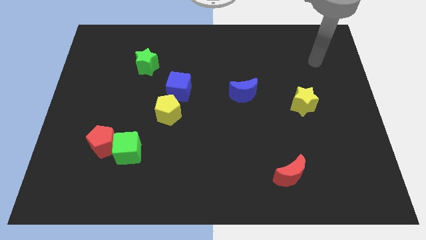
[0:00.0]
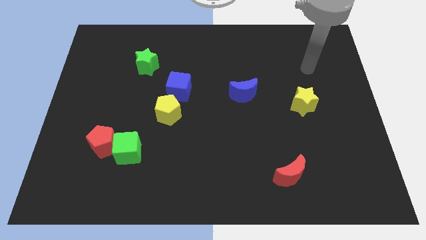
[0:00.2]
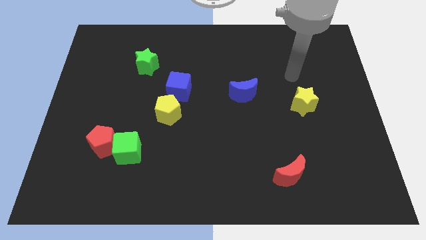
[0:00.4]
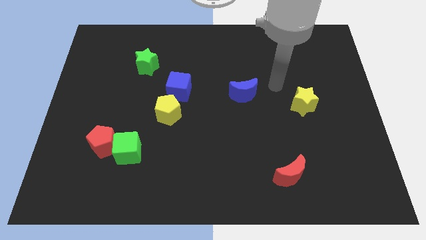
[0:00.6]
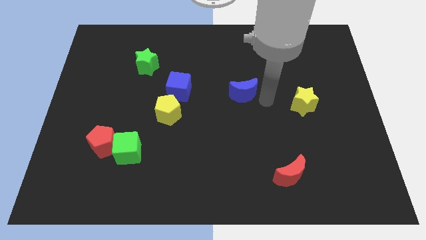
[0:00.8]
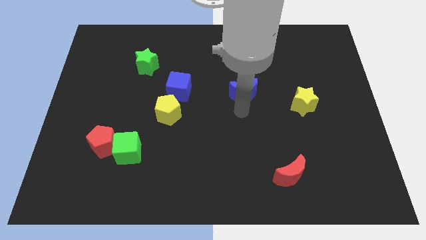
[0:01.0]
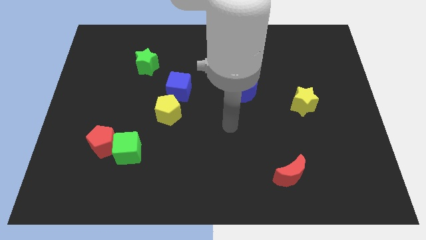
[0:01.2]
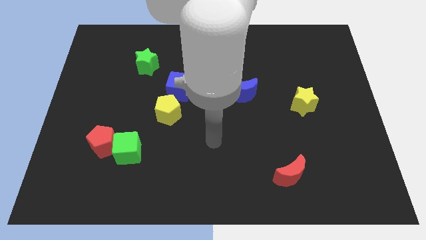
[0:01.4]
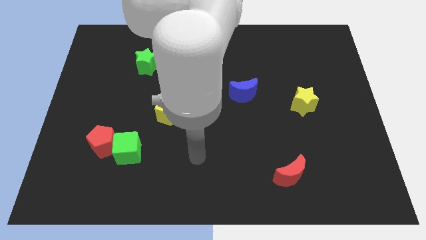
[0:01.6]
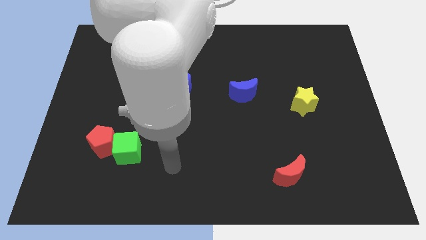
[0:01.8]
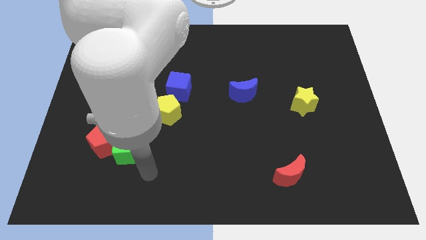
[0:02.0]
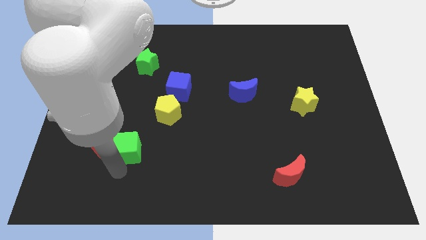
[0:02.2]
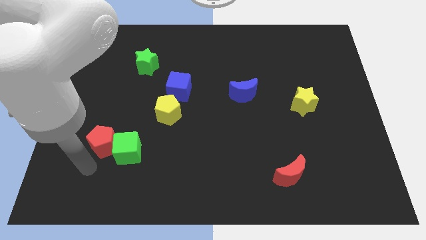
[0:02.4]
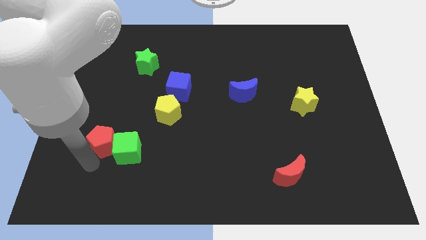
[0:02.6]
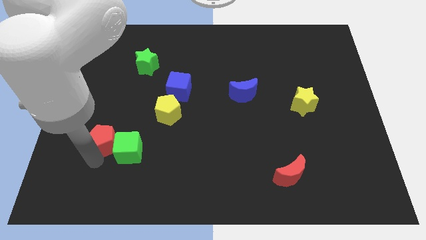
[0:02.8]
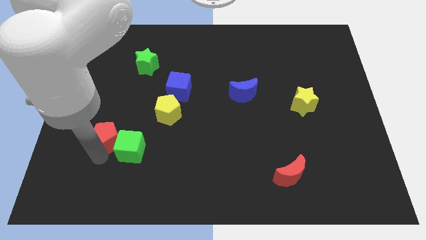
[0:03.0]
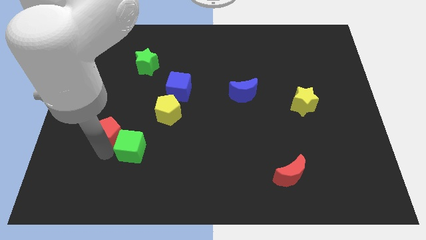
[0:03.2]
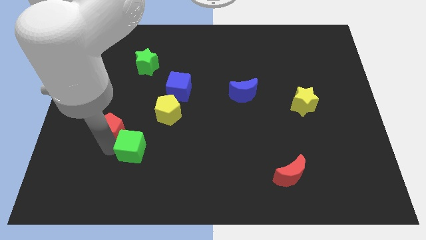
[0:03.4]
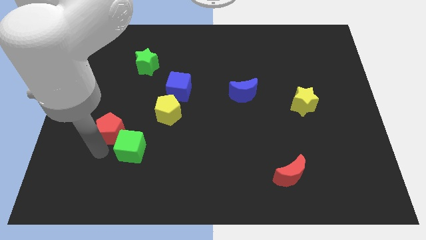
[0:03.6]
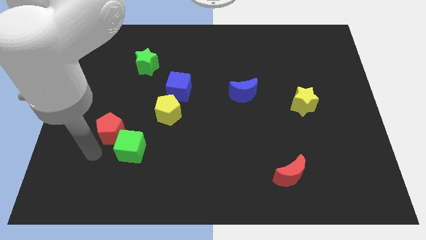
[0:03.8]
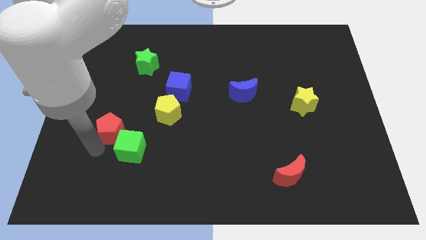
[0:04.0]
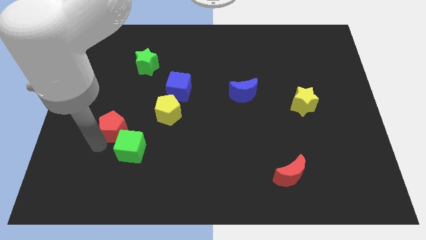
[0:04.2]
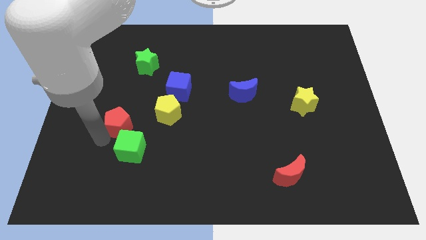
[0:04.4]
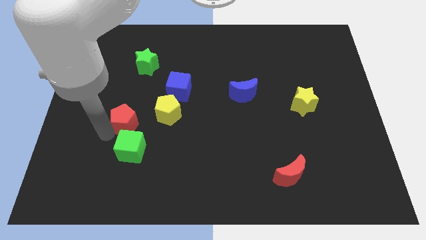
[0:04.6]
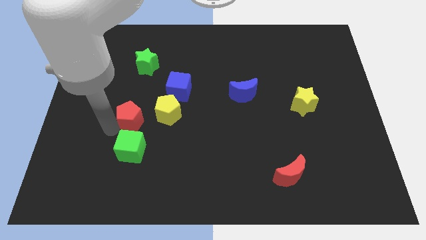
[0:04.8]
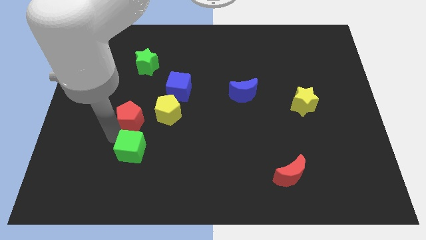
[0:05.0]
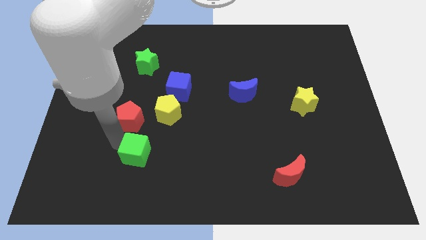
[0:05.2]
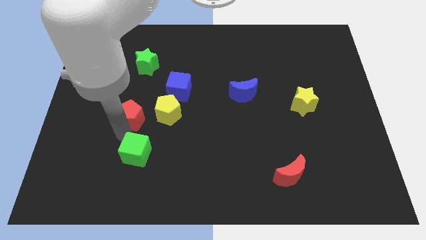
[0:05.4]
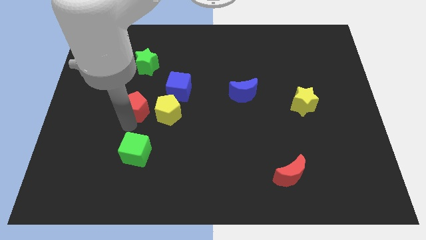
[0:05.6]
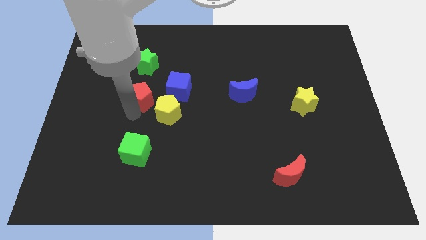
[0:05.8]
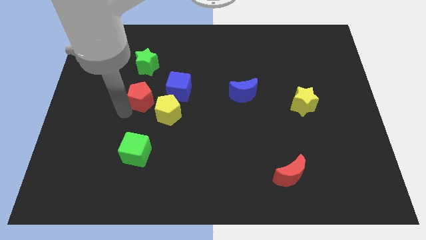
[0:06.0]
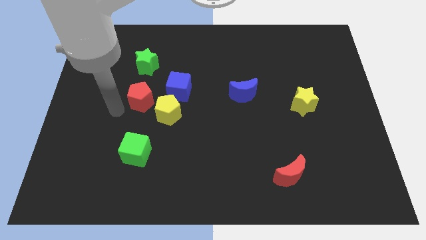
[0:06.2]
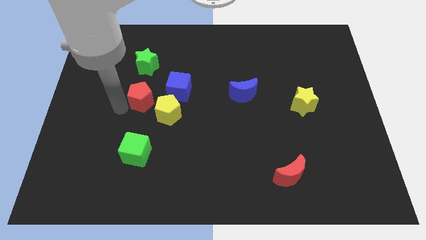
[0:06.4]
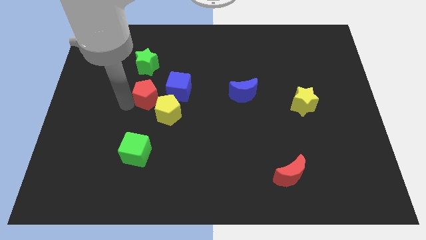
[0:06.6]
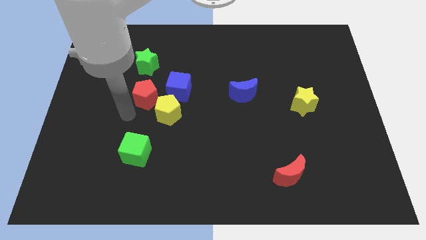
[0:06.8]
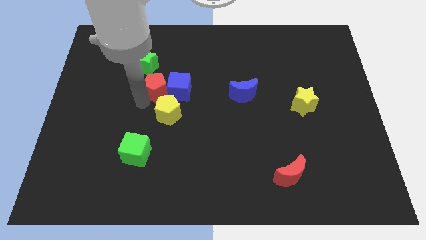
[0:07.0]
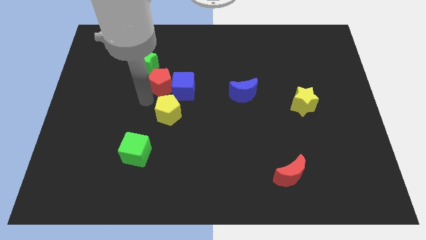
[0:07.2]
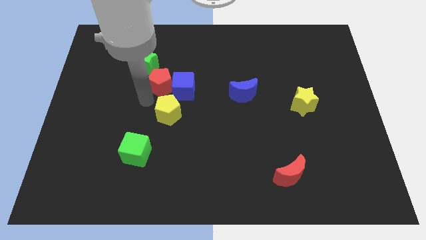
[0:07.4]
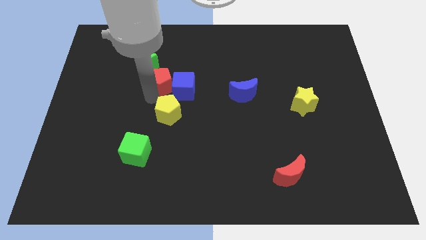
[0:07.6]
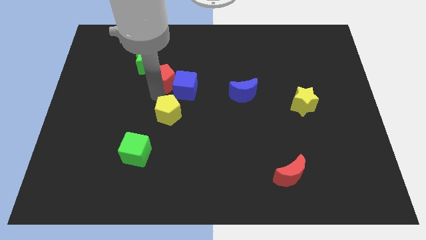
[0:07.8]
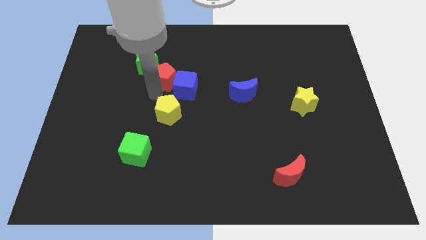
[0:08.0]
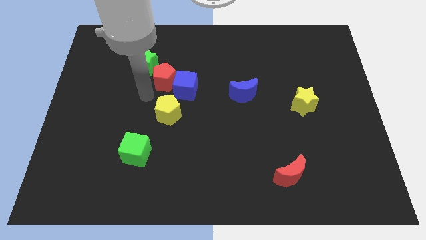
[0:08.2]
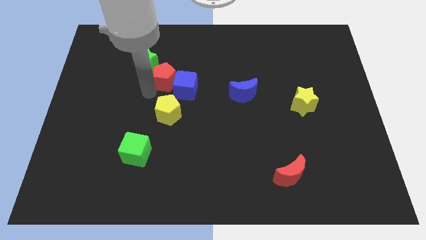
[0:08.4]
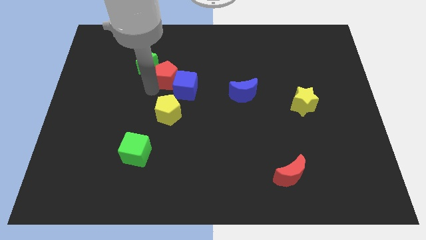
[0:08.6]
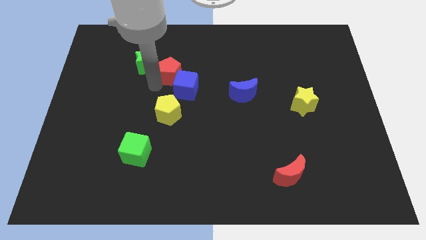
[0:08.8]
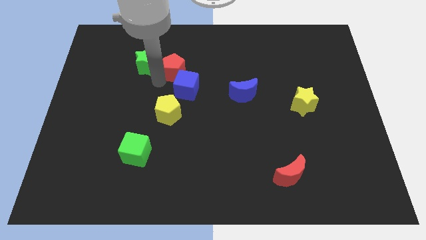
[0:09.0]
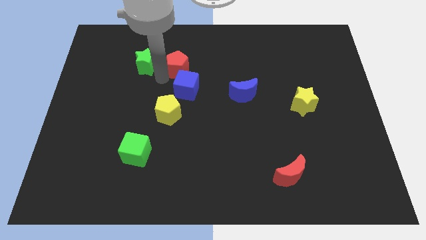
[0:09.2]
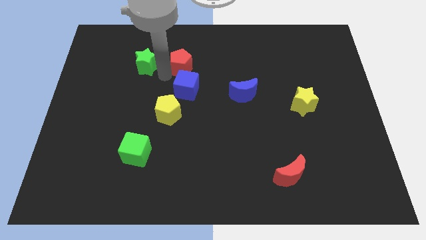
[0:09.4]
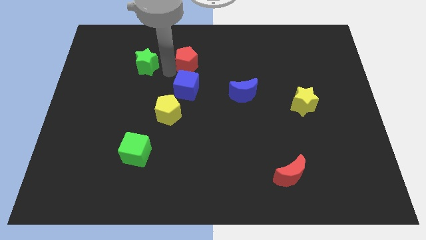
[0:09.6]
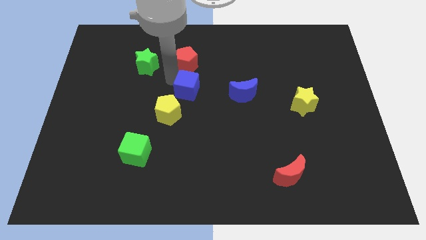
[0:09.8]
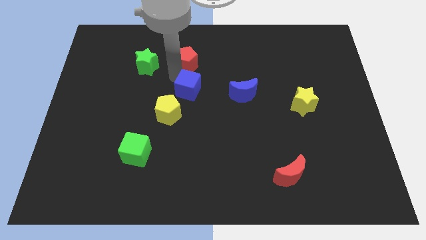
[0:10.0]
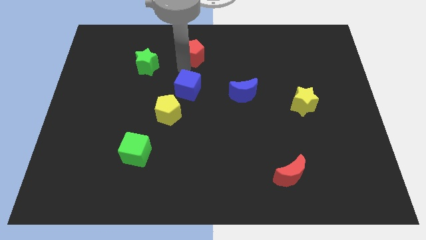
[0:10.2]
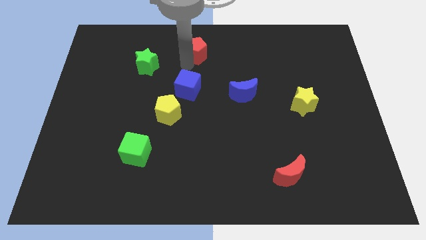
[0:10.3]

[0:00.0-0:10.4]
put the red pentagon to the towards your base

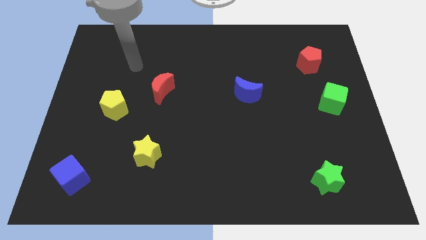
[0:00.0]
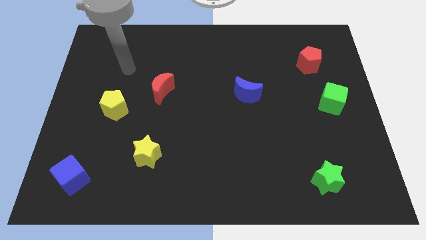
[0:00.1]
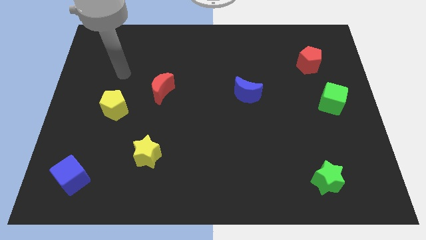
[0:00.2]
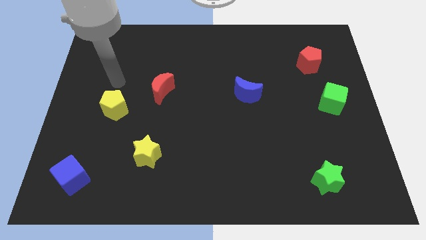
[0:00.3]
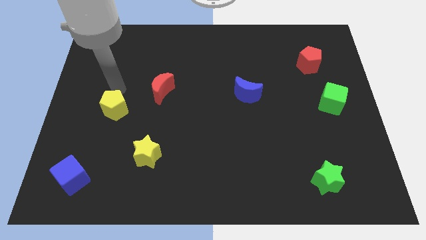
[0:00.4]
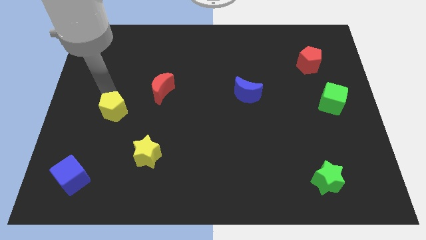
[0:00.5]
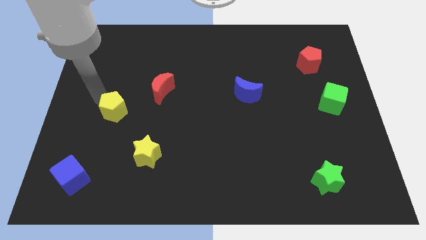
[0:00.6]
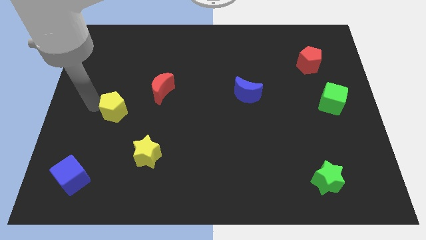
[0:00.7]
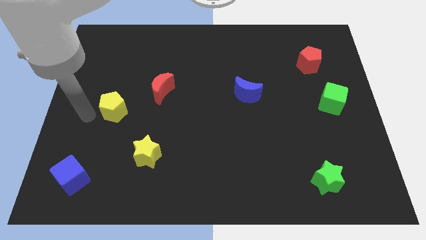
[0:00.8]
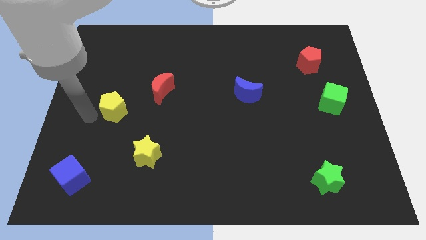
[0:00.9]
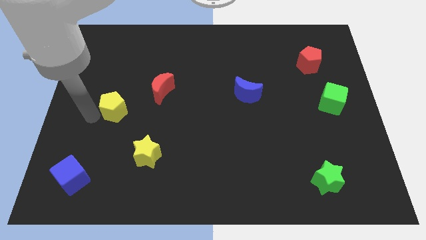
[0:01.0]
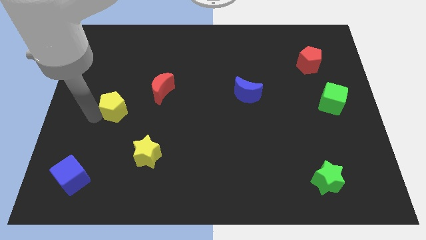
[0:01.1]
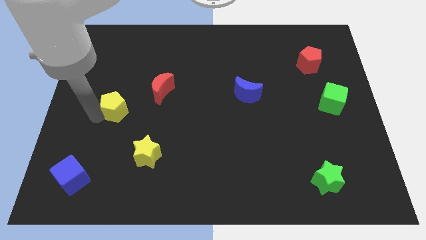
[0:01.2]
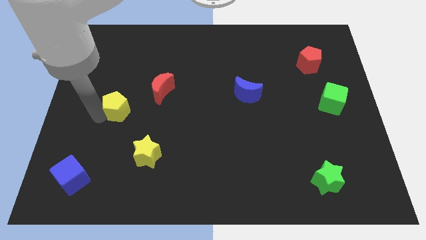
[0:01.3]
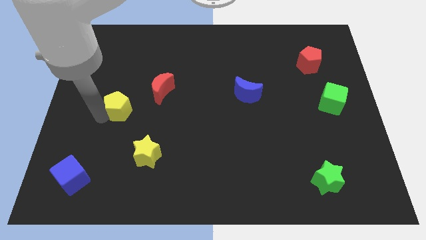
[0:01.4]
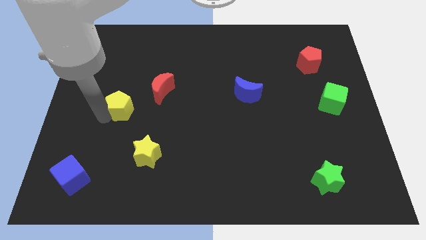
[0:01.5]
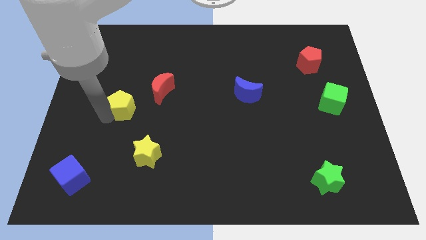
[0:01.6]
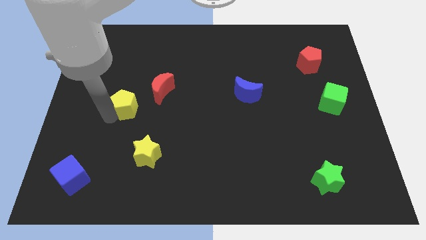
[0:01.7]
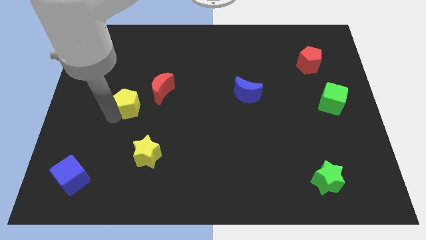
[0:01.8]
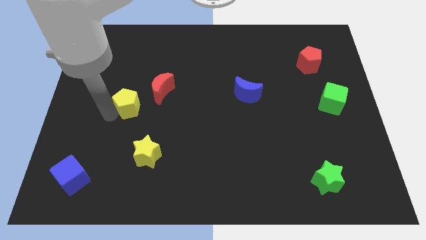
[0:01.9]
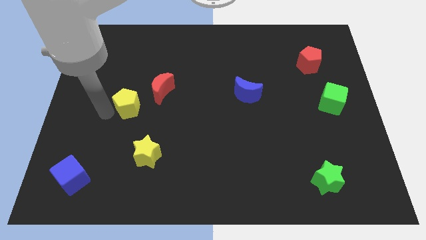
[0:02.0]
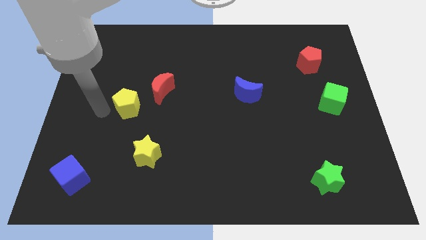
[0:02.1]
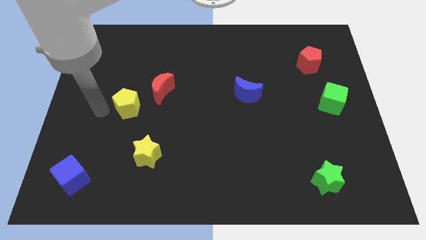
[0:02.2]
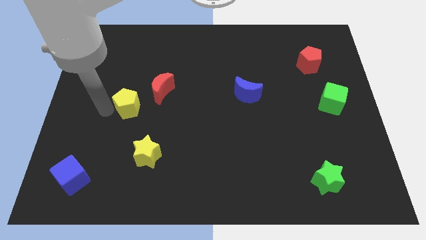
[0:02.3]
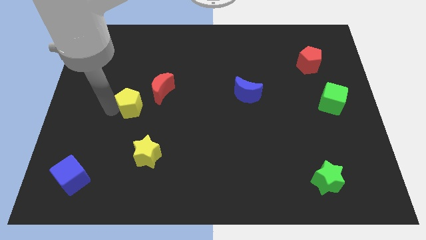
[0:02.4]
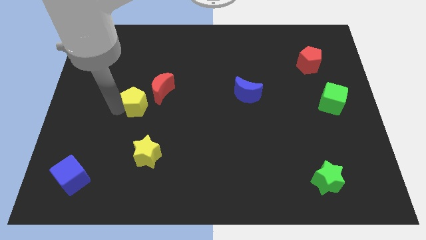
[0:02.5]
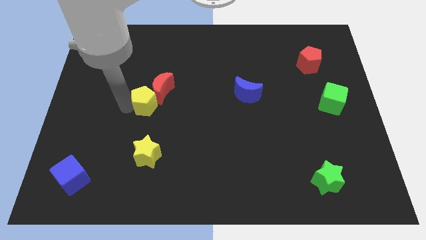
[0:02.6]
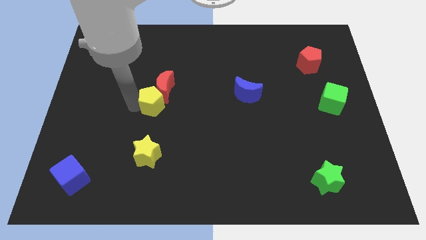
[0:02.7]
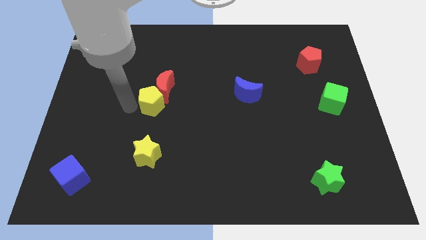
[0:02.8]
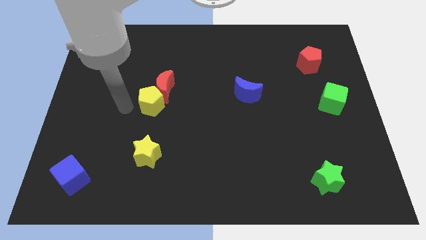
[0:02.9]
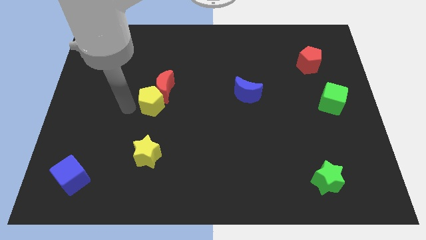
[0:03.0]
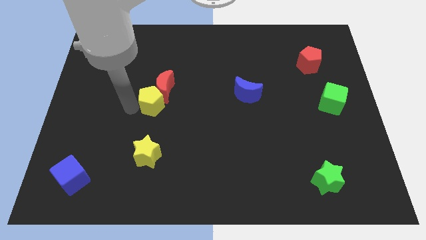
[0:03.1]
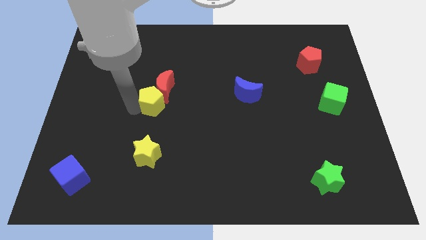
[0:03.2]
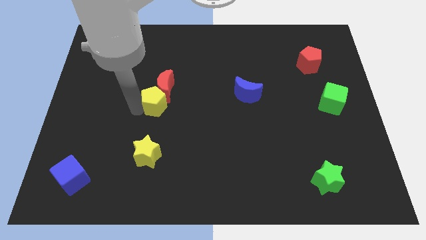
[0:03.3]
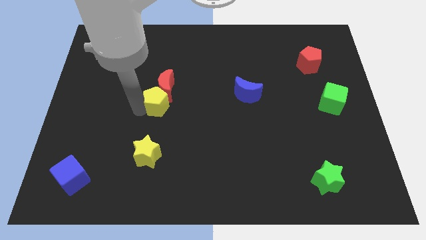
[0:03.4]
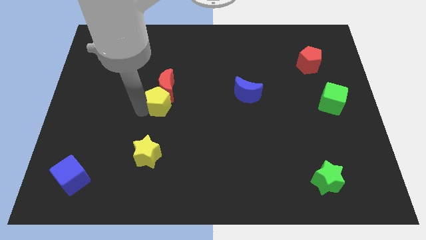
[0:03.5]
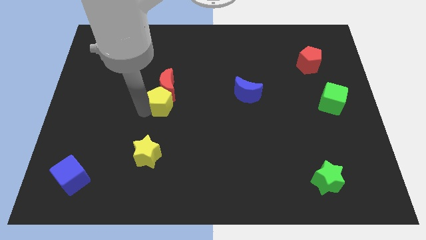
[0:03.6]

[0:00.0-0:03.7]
put the yellow pentagon to the middle
